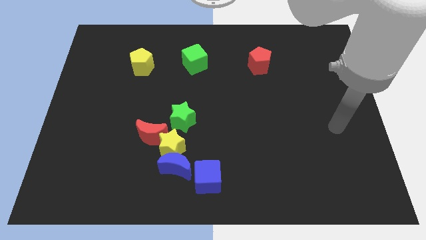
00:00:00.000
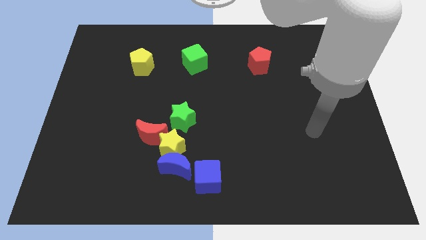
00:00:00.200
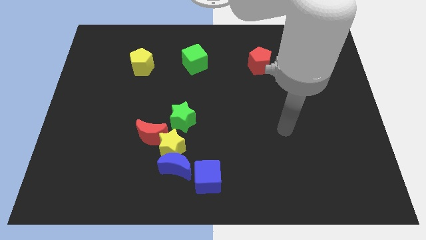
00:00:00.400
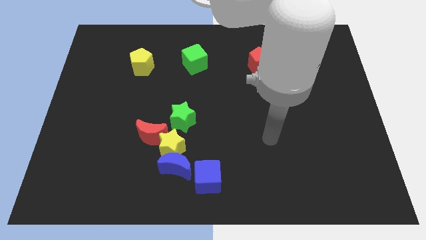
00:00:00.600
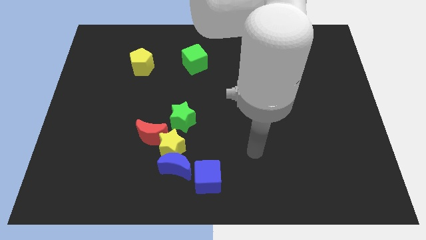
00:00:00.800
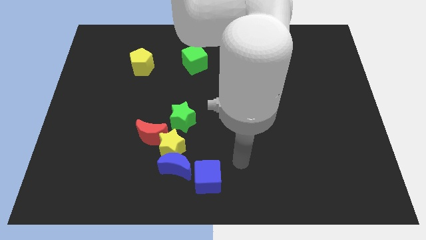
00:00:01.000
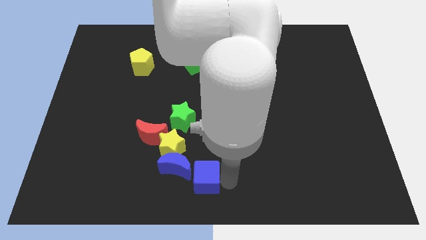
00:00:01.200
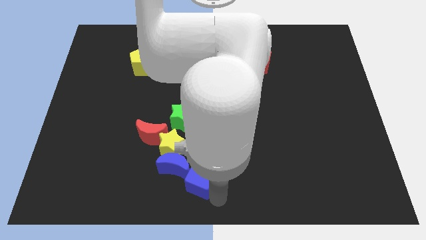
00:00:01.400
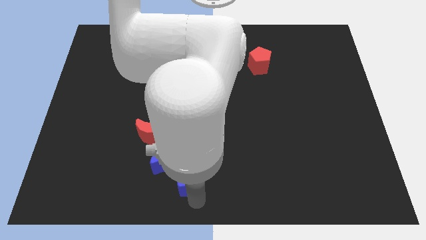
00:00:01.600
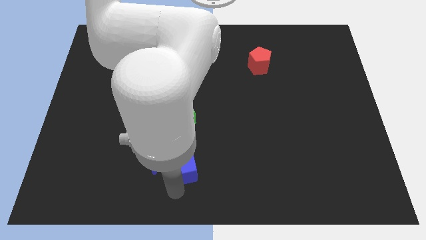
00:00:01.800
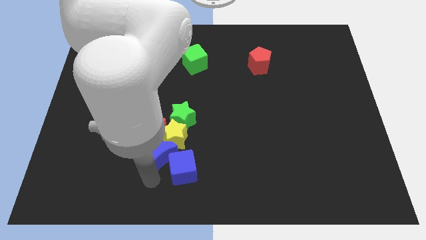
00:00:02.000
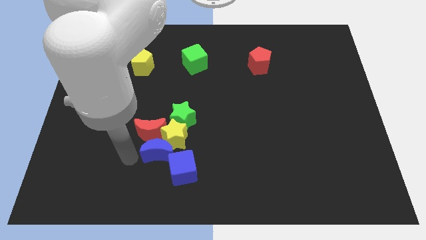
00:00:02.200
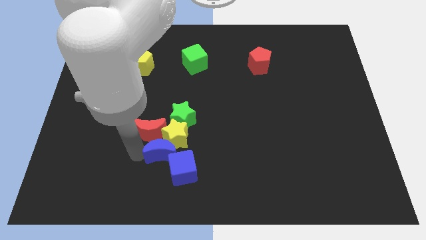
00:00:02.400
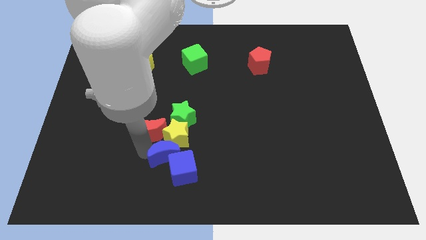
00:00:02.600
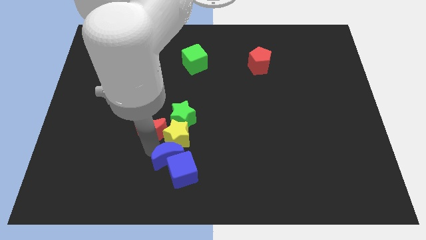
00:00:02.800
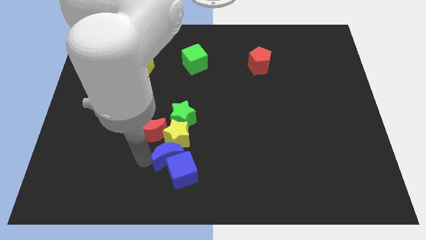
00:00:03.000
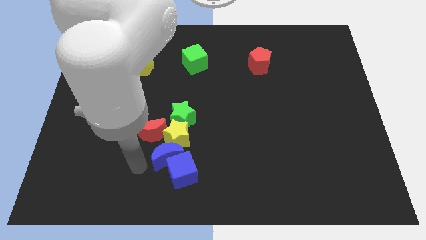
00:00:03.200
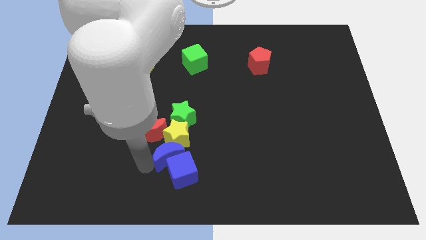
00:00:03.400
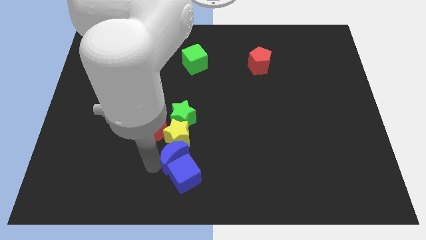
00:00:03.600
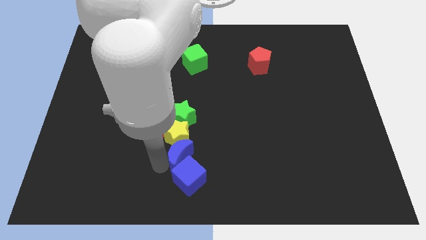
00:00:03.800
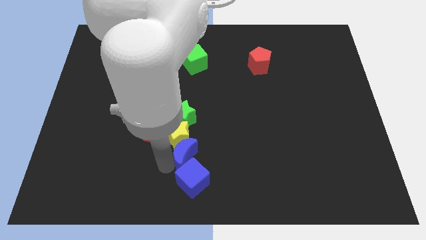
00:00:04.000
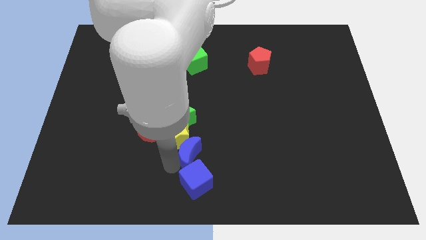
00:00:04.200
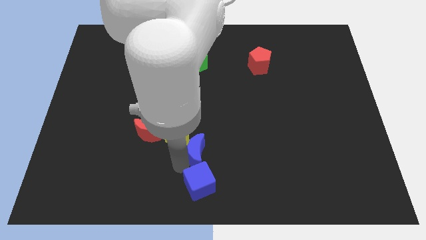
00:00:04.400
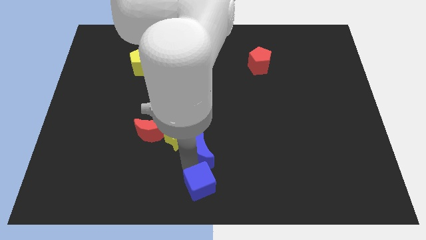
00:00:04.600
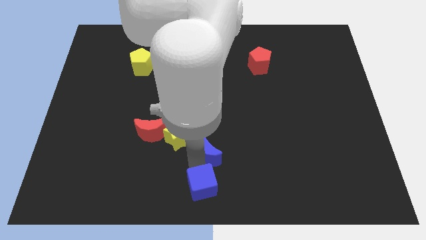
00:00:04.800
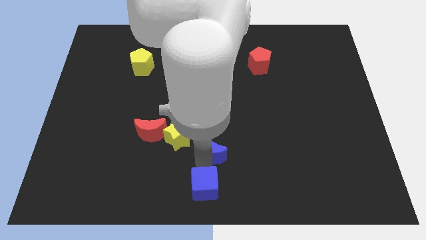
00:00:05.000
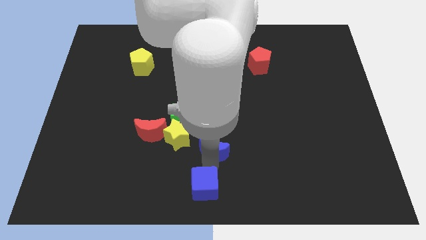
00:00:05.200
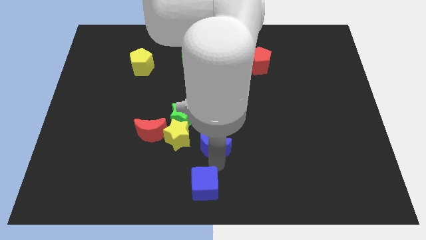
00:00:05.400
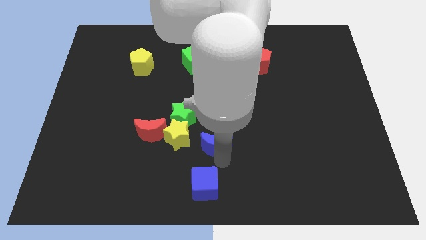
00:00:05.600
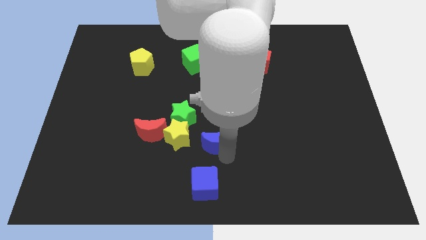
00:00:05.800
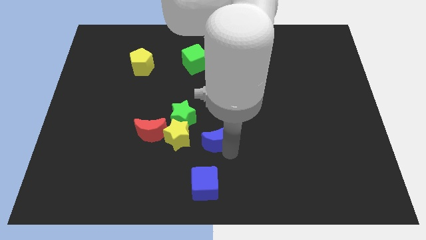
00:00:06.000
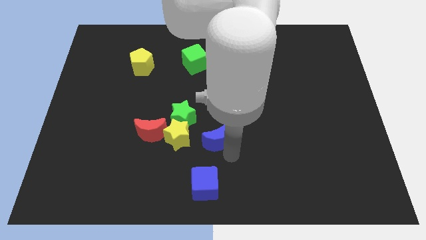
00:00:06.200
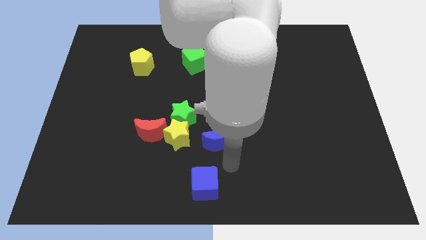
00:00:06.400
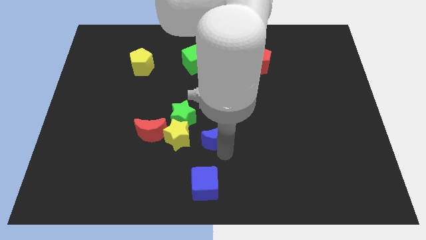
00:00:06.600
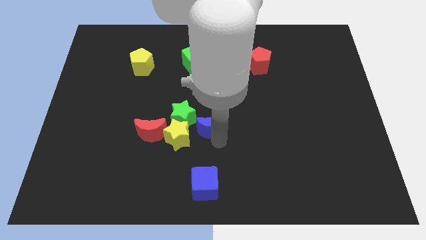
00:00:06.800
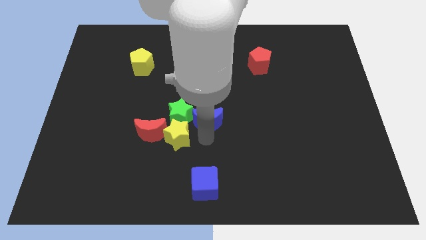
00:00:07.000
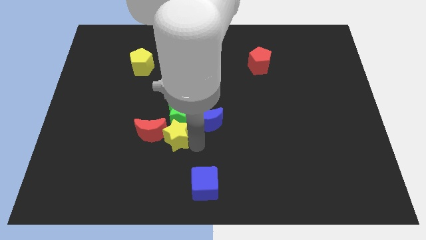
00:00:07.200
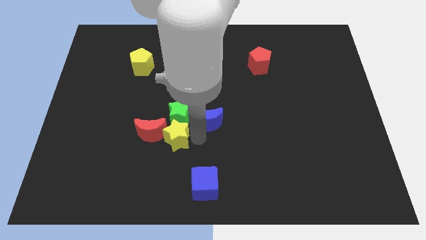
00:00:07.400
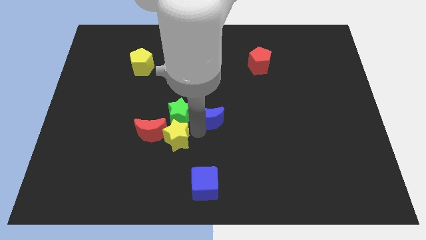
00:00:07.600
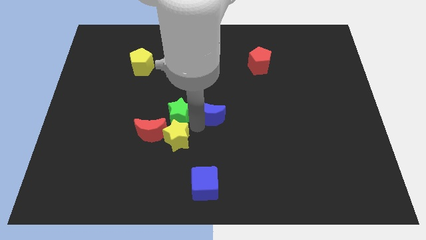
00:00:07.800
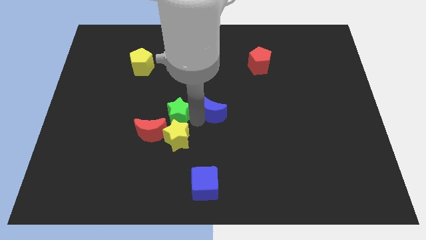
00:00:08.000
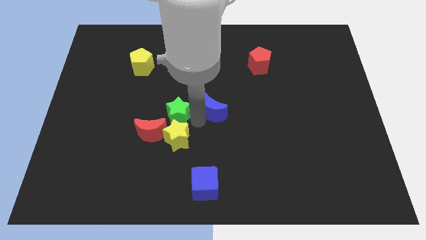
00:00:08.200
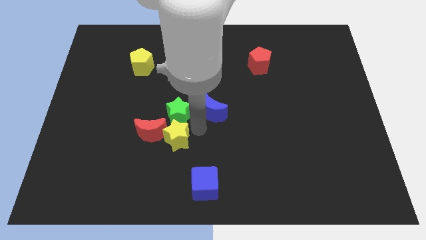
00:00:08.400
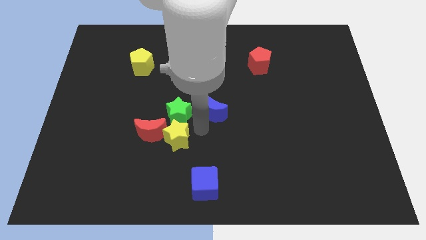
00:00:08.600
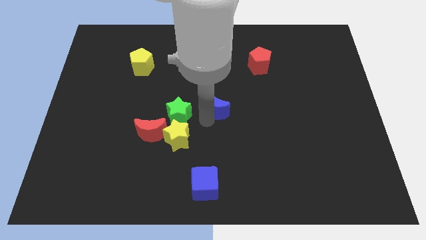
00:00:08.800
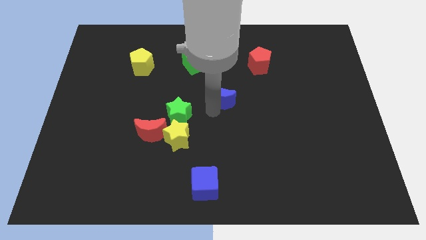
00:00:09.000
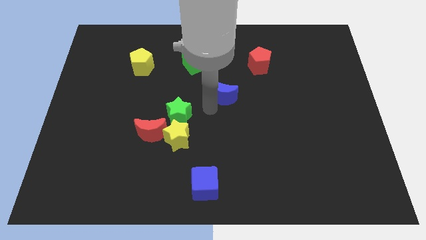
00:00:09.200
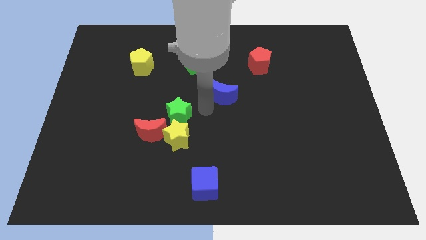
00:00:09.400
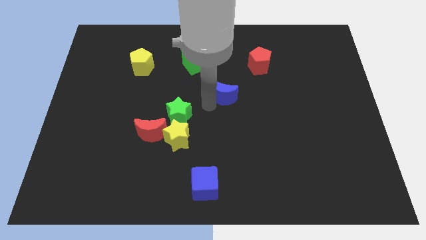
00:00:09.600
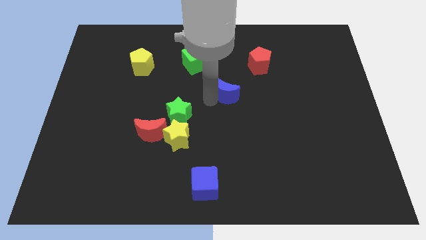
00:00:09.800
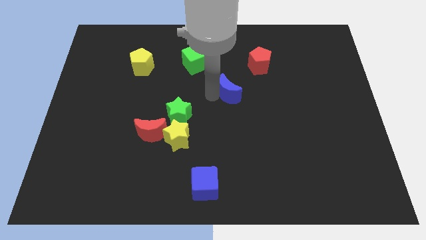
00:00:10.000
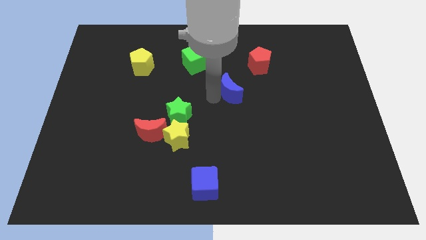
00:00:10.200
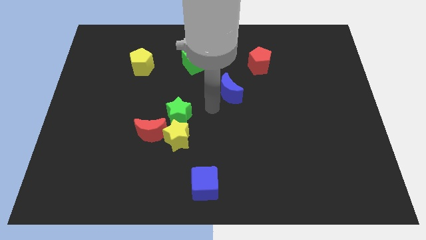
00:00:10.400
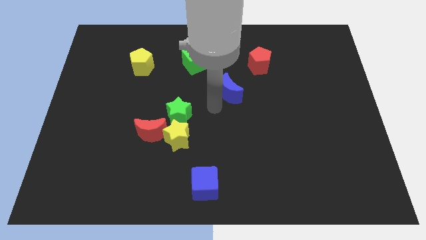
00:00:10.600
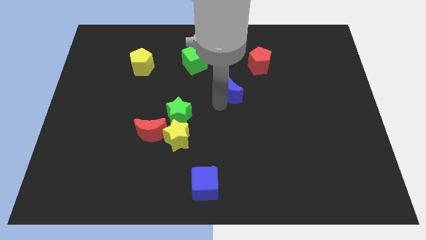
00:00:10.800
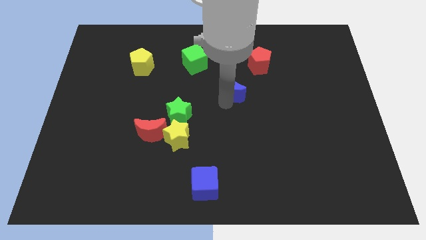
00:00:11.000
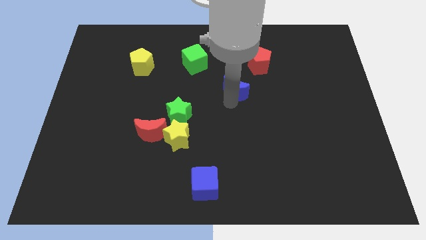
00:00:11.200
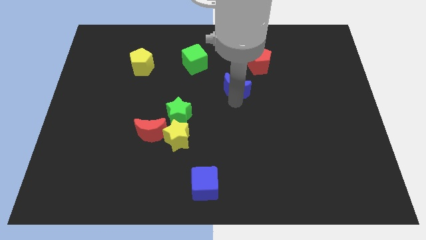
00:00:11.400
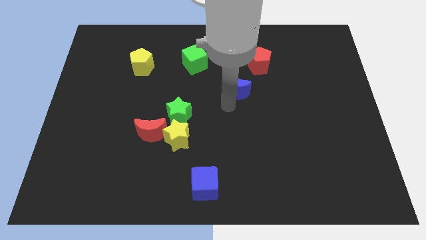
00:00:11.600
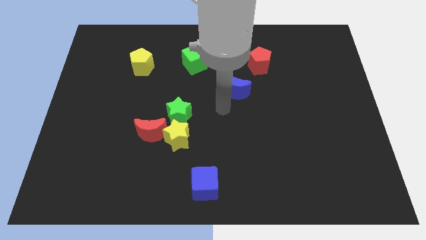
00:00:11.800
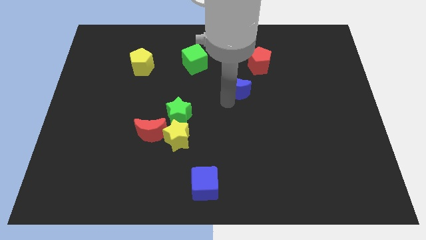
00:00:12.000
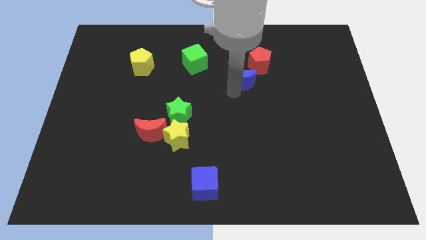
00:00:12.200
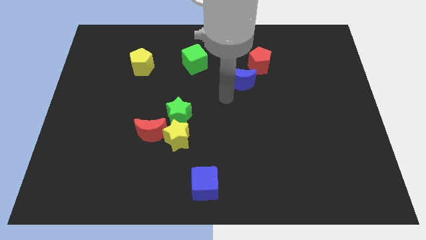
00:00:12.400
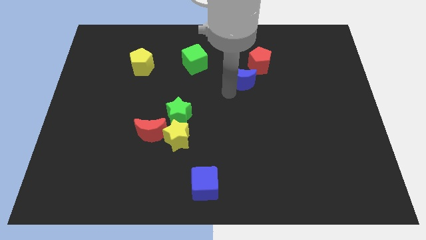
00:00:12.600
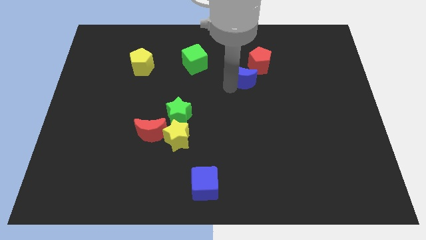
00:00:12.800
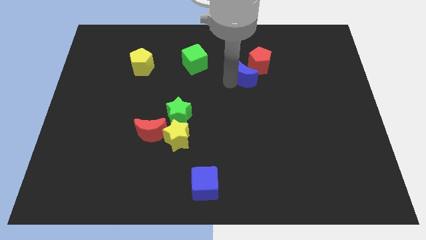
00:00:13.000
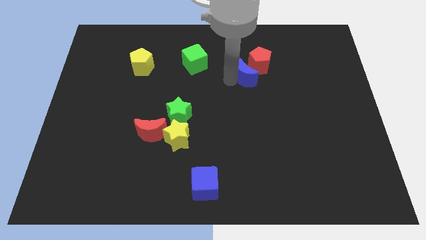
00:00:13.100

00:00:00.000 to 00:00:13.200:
move the blue moon to the red pentagon
